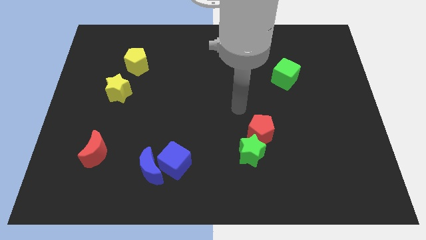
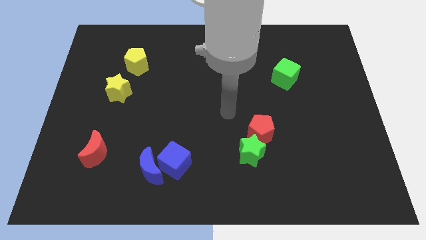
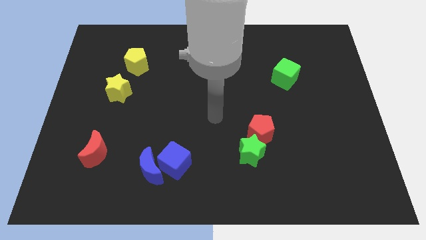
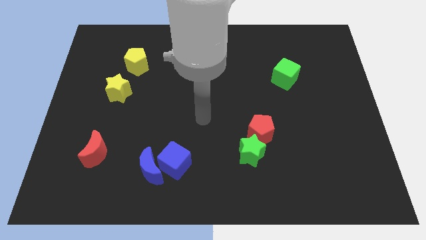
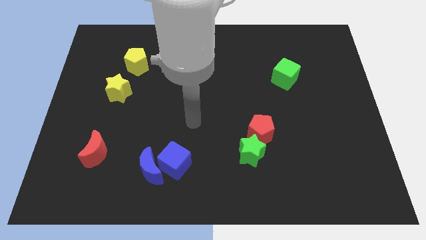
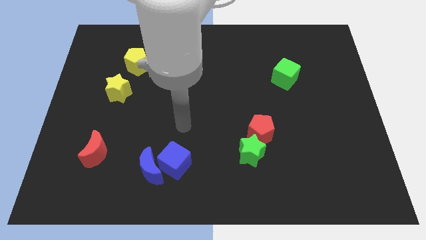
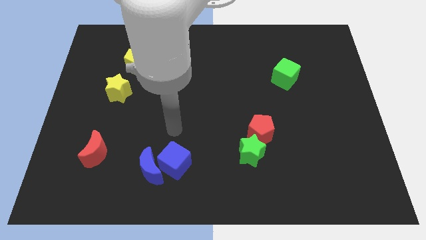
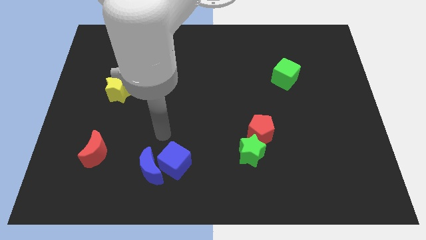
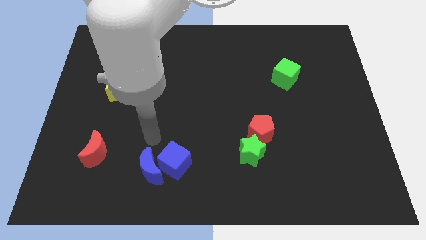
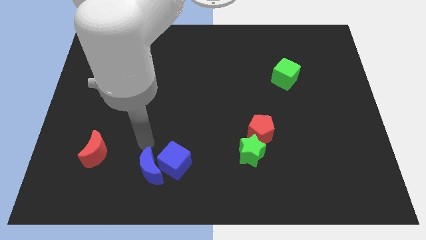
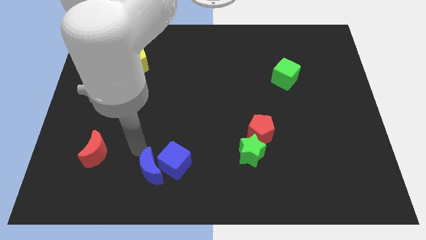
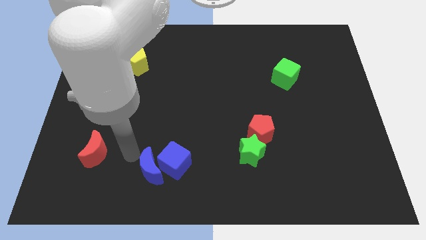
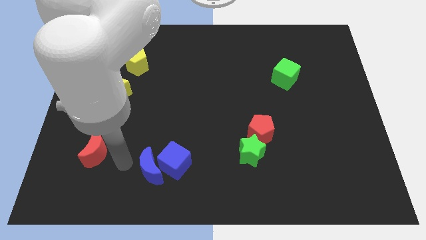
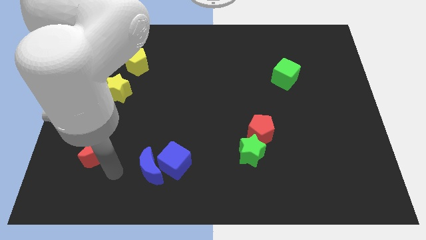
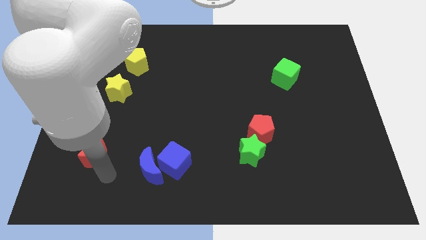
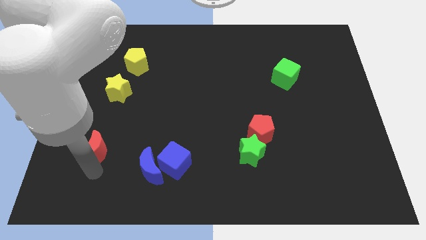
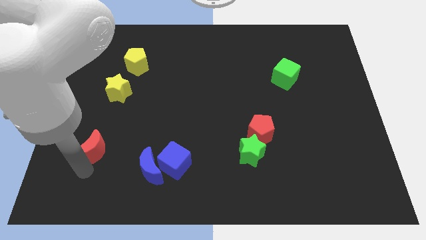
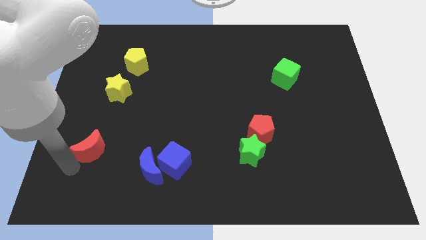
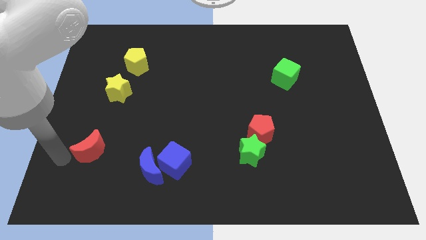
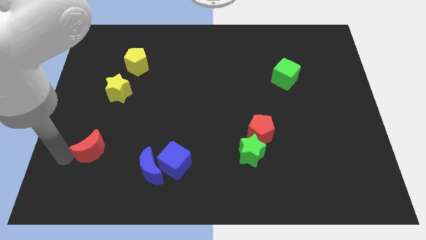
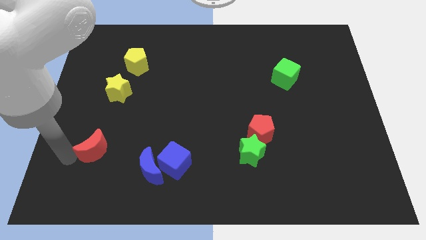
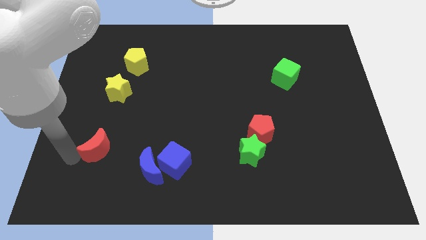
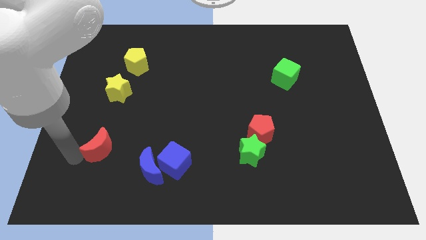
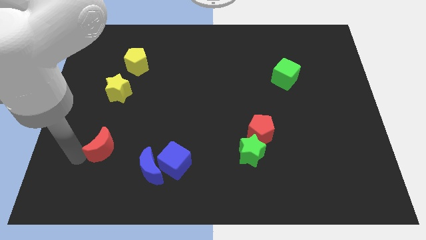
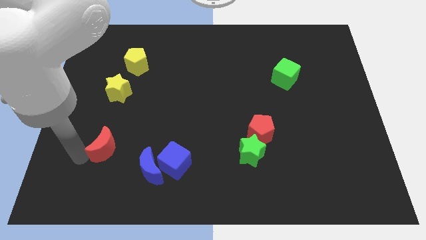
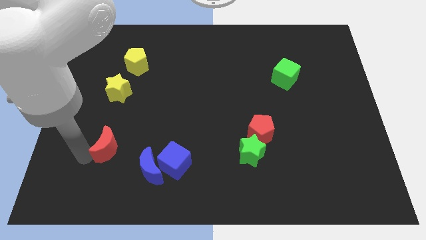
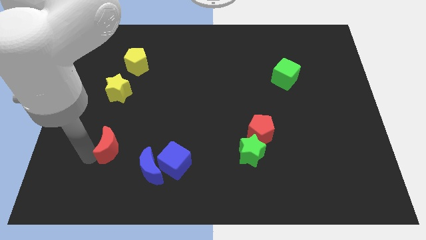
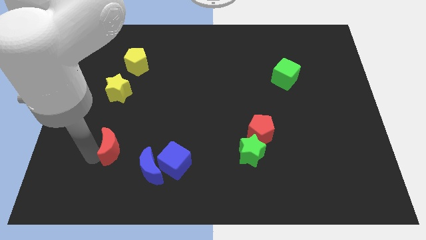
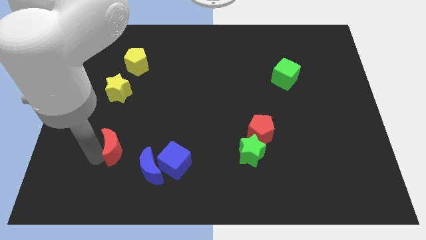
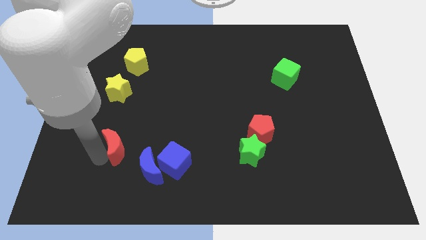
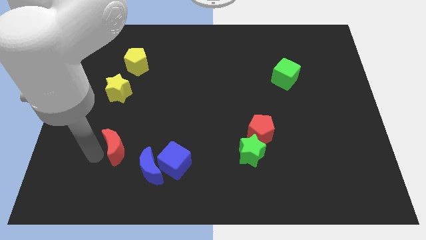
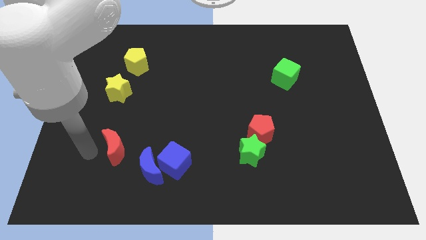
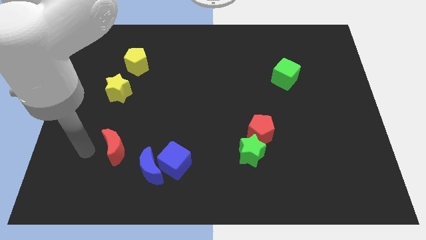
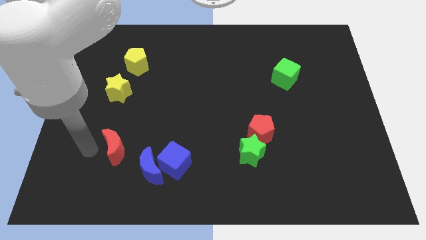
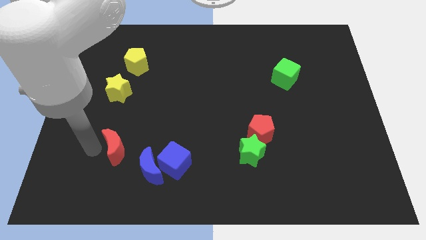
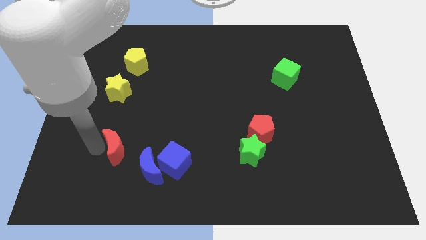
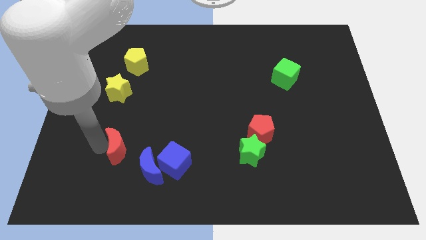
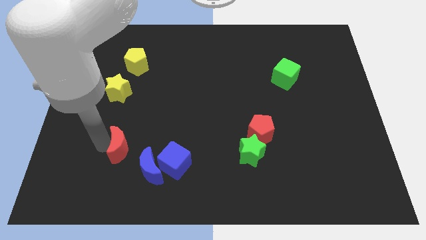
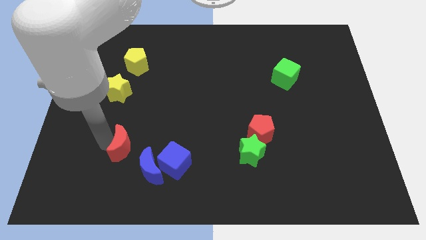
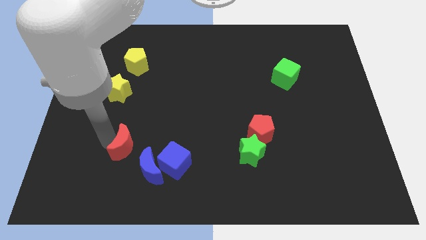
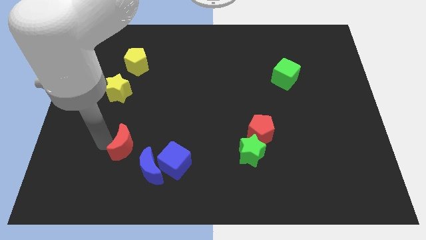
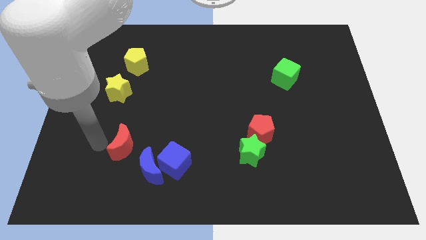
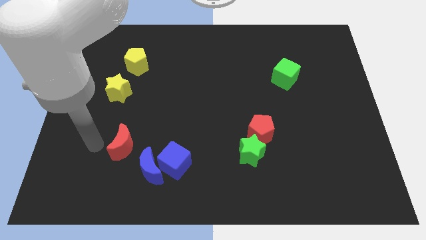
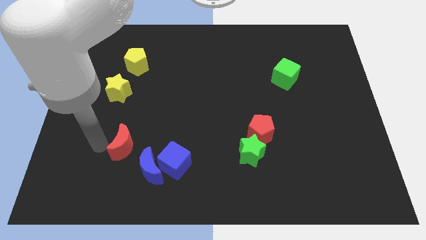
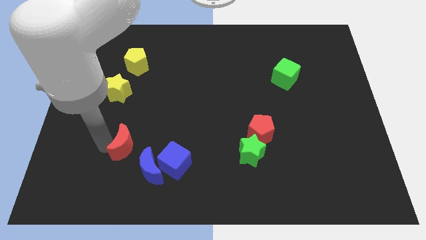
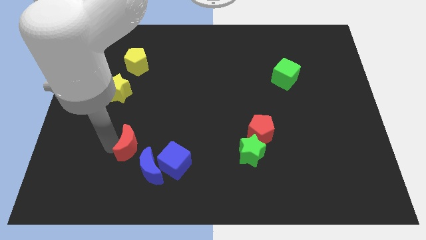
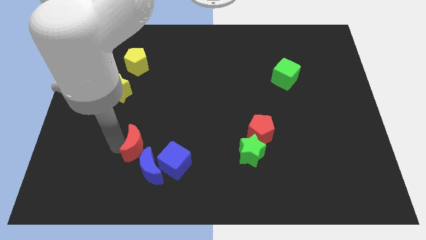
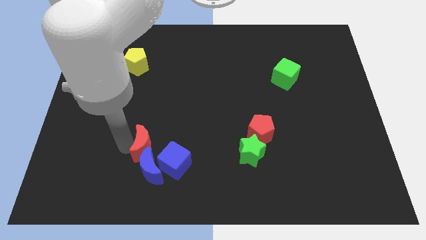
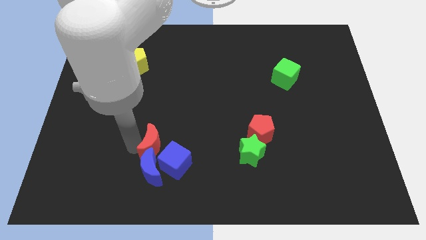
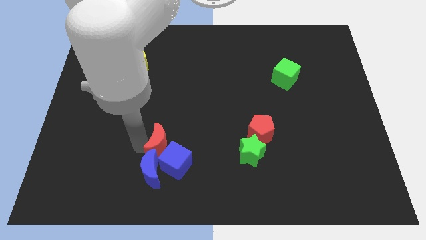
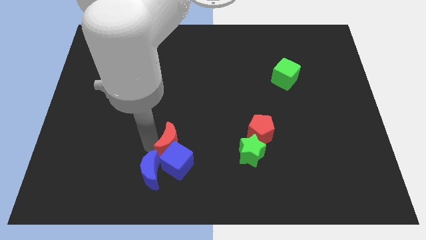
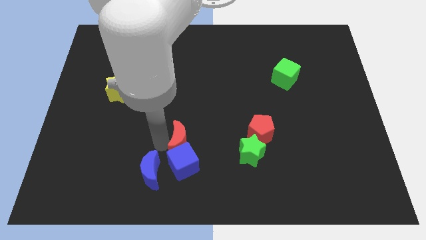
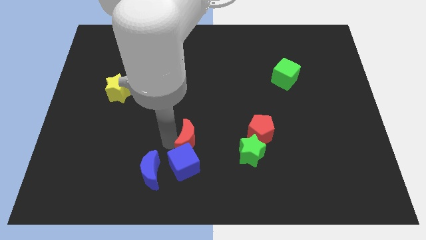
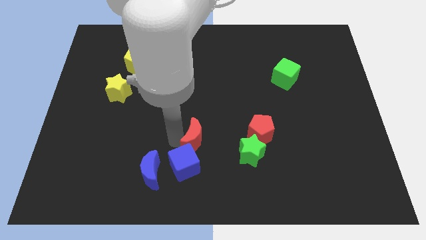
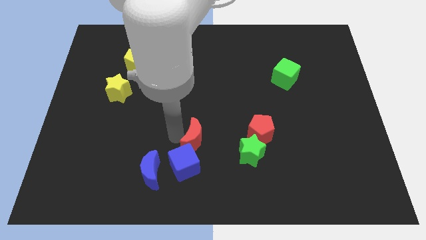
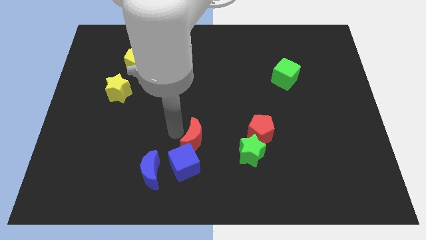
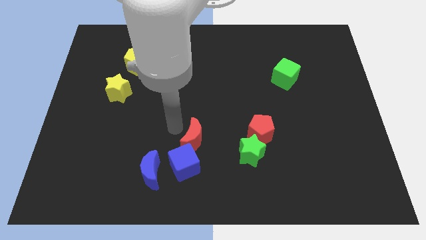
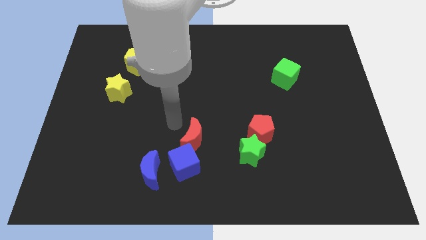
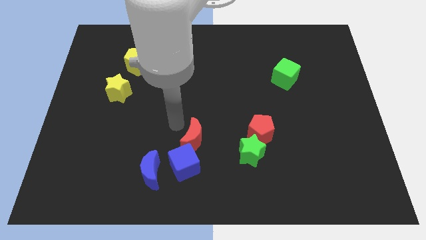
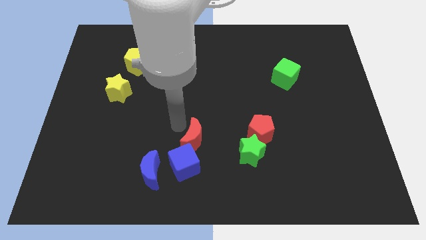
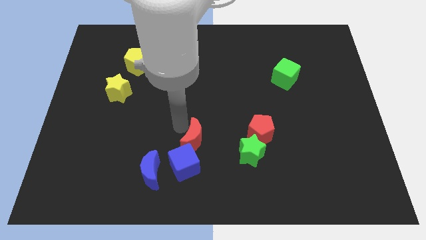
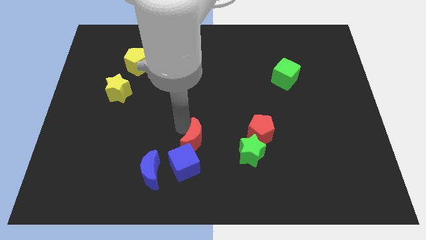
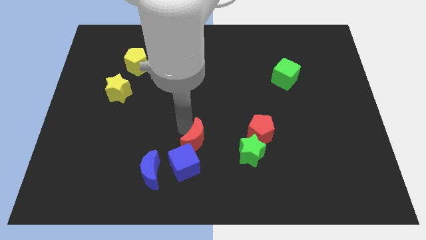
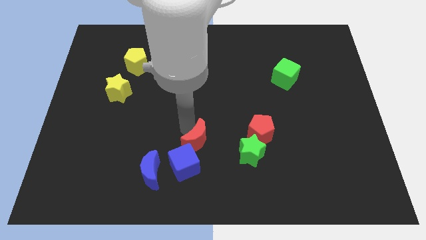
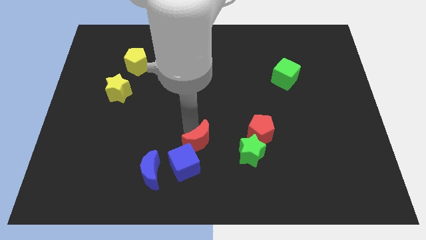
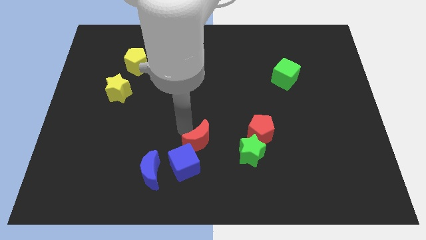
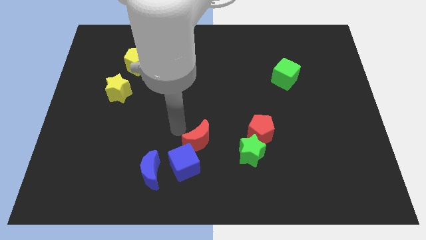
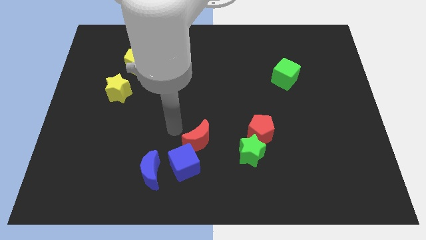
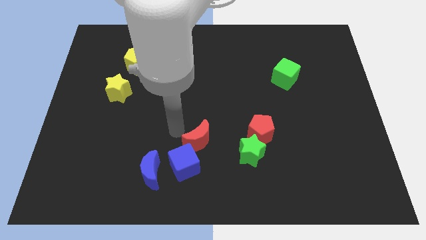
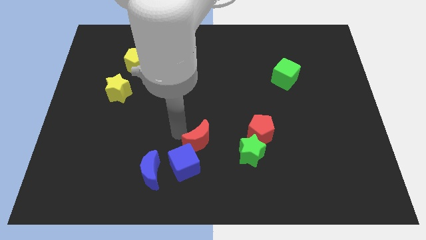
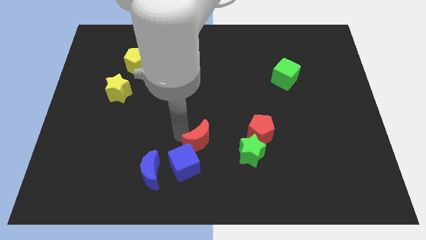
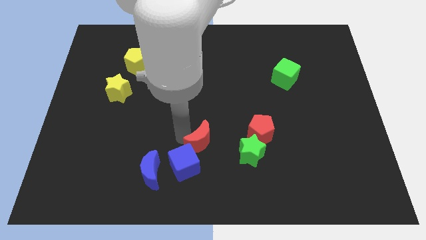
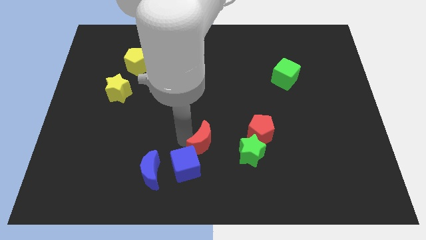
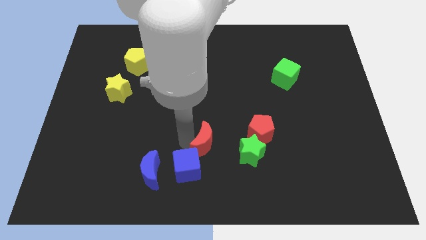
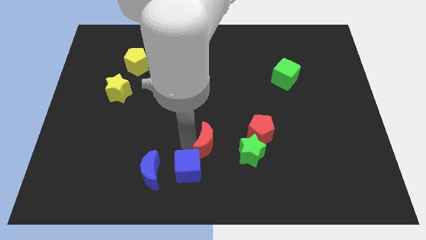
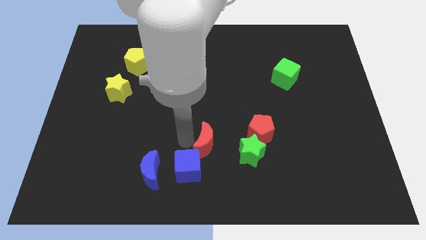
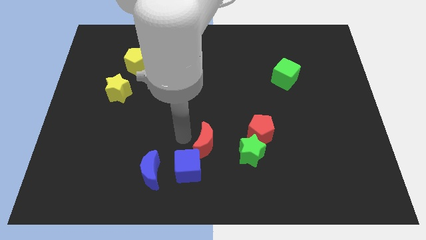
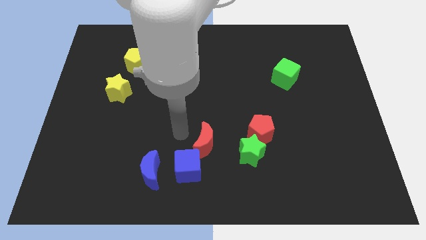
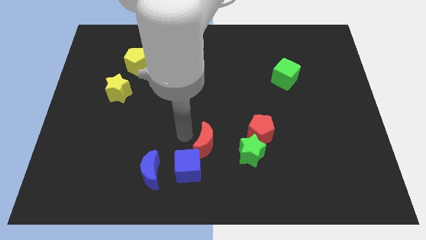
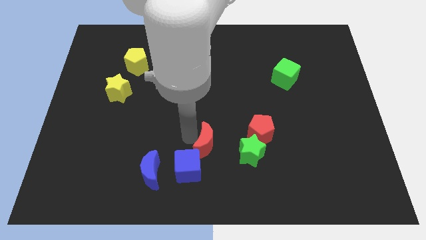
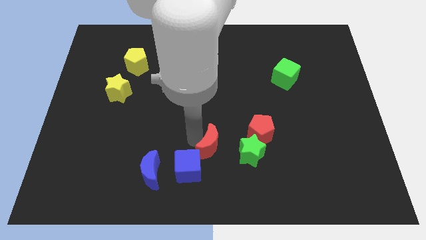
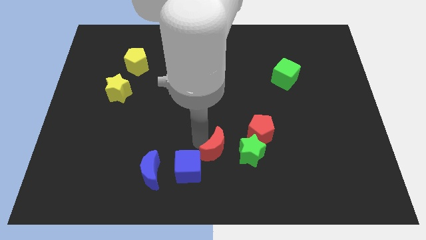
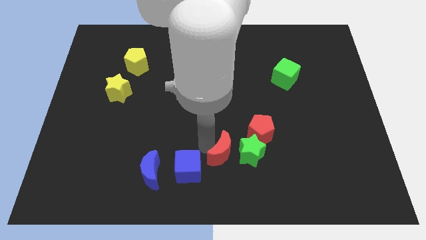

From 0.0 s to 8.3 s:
put the red moon towards the green star
